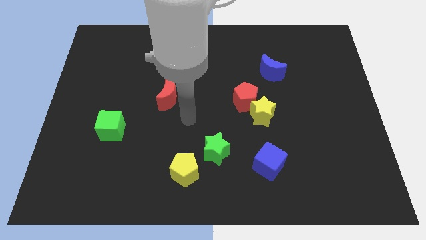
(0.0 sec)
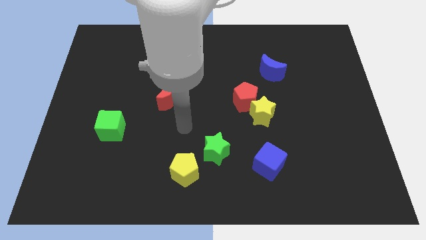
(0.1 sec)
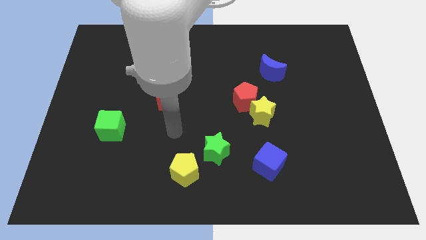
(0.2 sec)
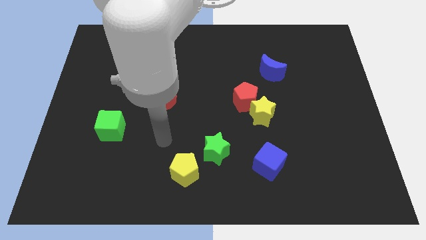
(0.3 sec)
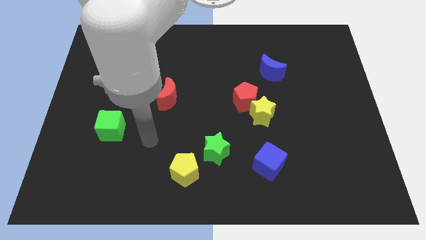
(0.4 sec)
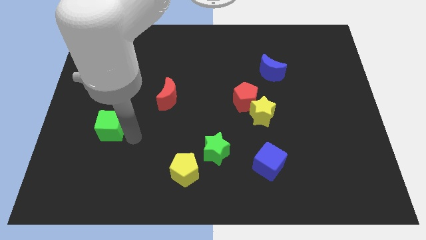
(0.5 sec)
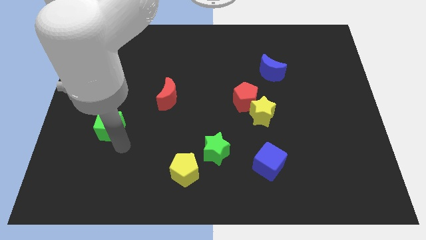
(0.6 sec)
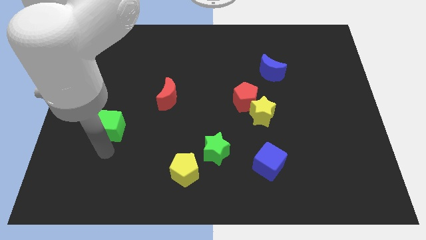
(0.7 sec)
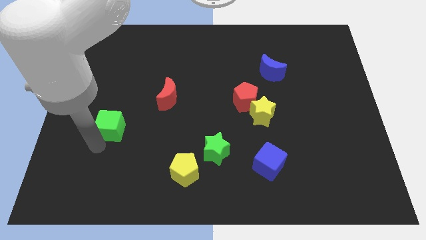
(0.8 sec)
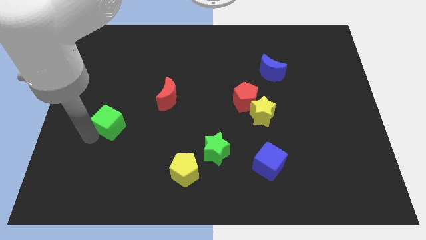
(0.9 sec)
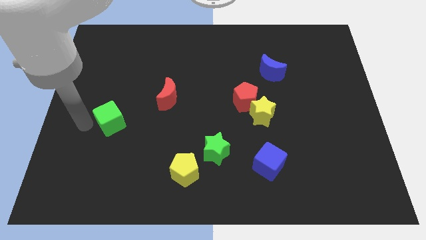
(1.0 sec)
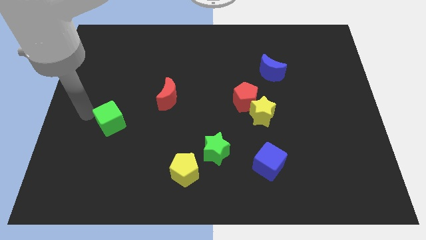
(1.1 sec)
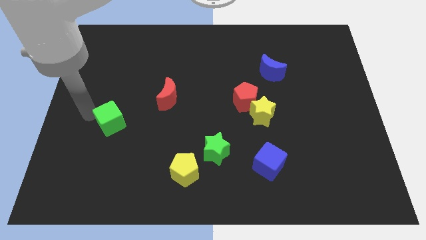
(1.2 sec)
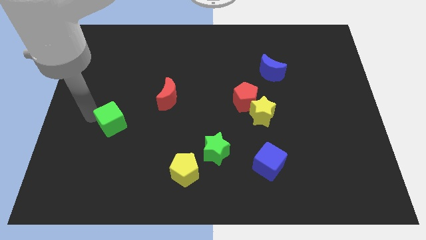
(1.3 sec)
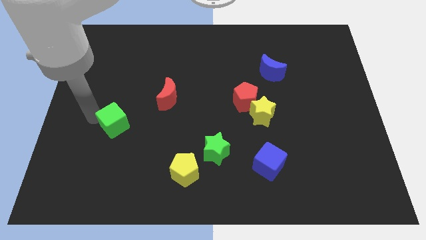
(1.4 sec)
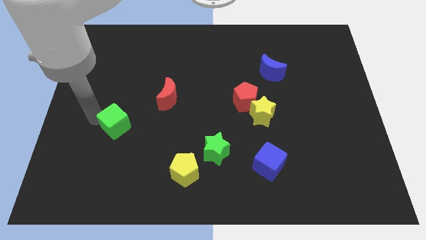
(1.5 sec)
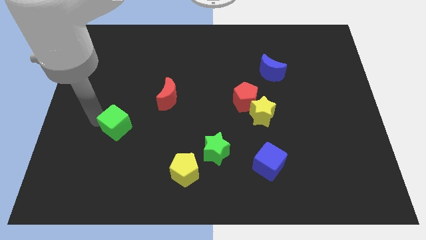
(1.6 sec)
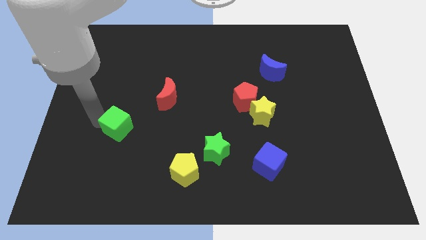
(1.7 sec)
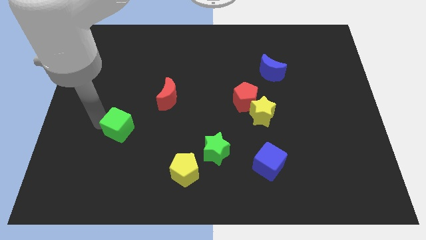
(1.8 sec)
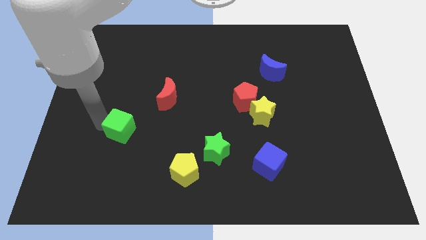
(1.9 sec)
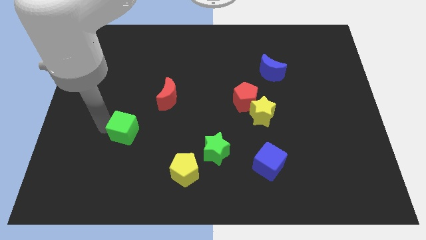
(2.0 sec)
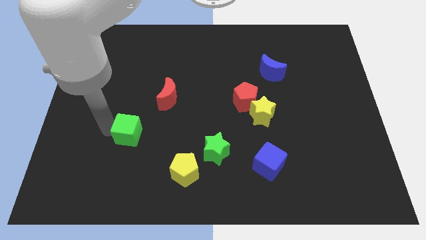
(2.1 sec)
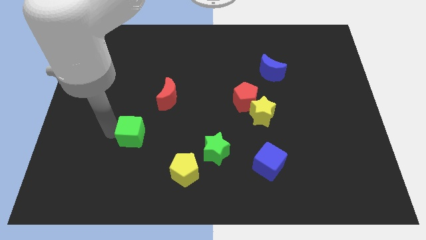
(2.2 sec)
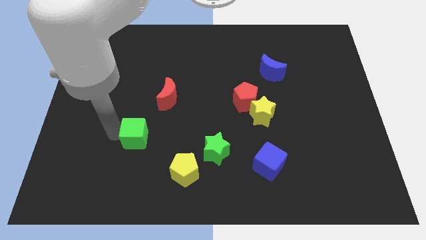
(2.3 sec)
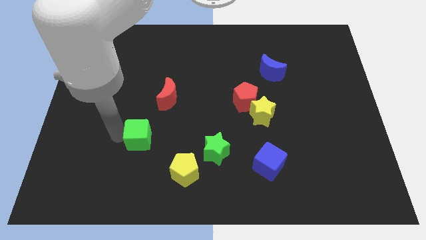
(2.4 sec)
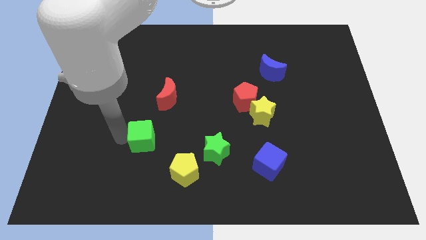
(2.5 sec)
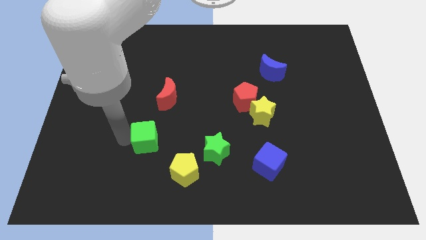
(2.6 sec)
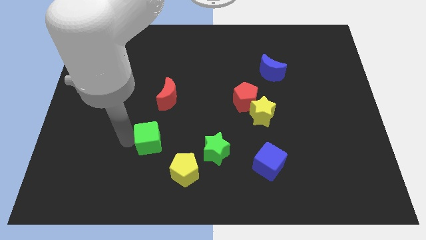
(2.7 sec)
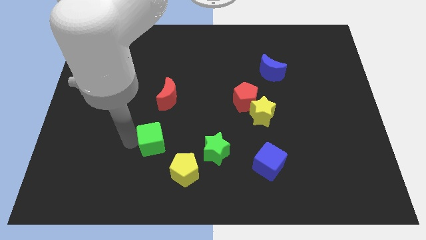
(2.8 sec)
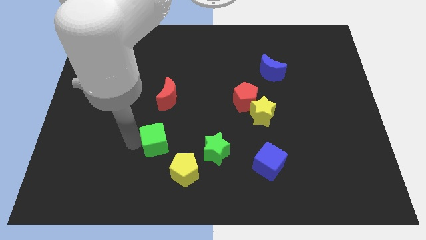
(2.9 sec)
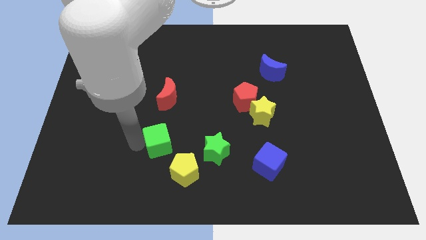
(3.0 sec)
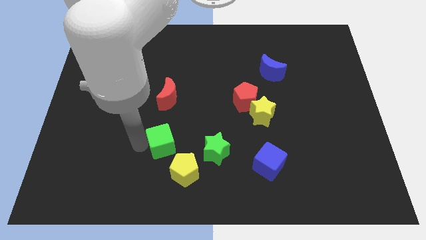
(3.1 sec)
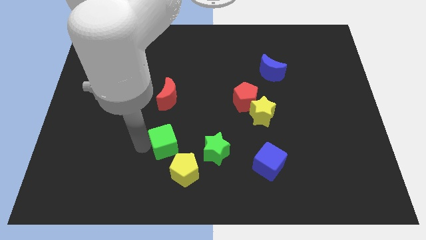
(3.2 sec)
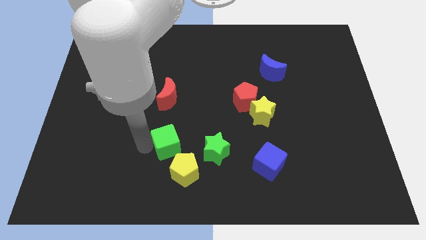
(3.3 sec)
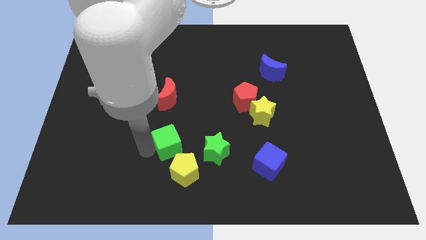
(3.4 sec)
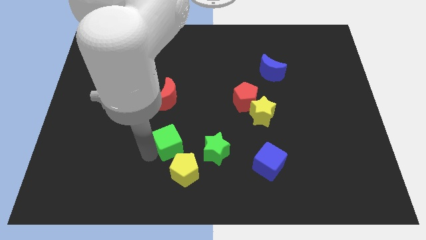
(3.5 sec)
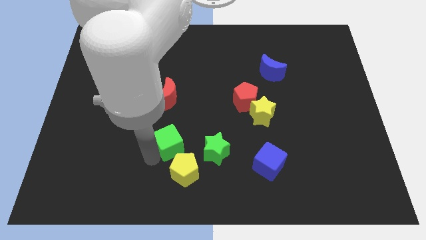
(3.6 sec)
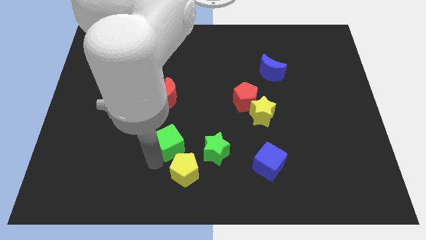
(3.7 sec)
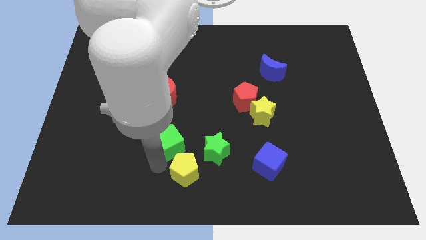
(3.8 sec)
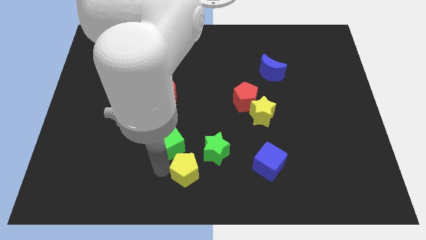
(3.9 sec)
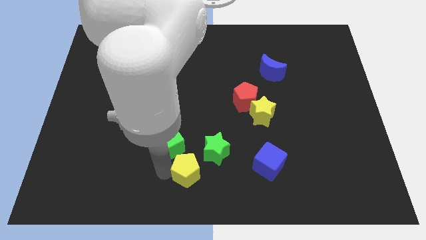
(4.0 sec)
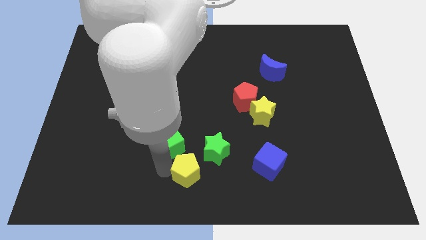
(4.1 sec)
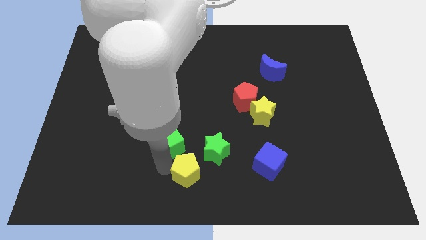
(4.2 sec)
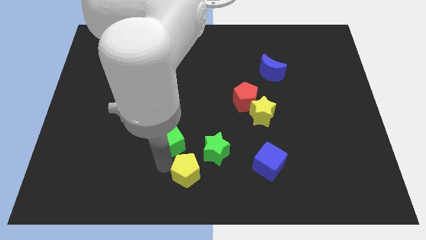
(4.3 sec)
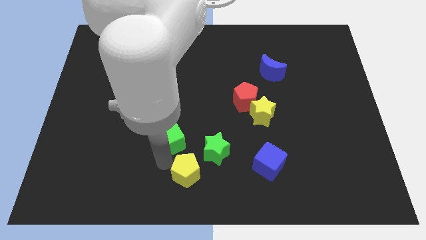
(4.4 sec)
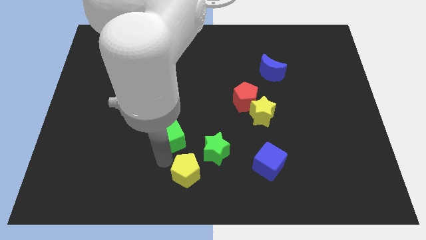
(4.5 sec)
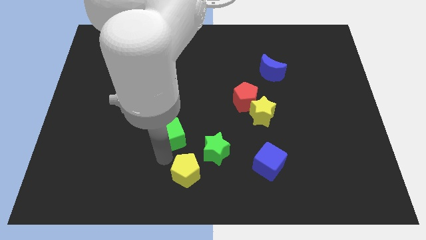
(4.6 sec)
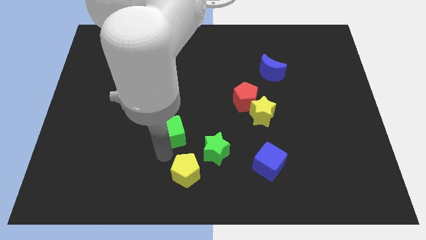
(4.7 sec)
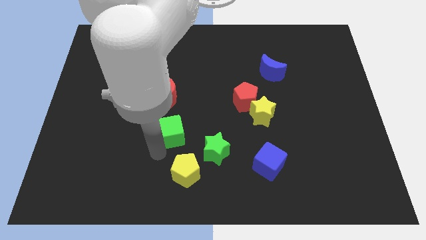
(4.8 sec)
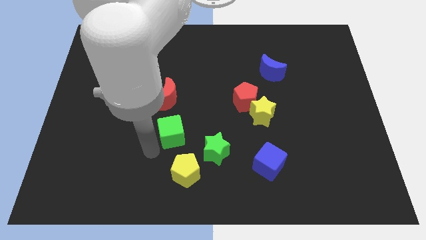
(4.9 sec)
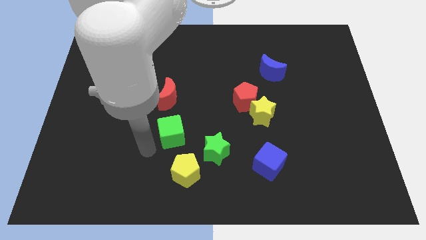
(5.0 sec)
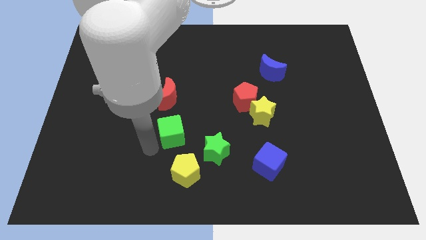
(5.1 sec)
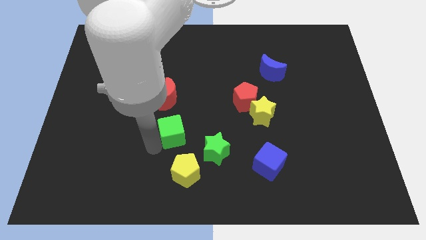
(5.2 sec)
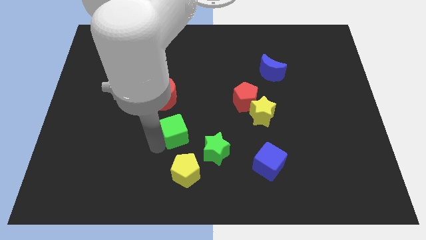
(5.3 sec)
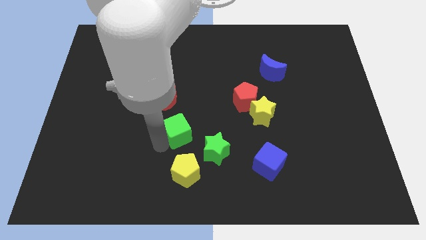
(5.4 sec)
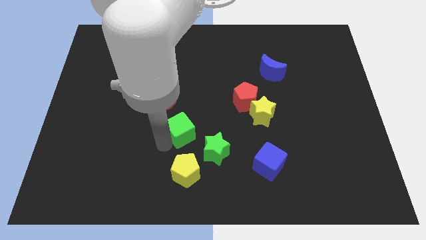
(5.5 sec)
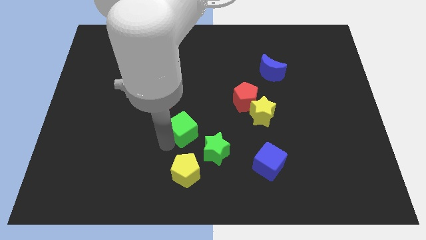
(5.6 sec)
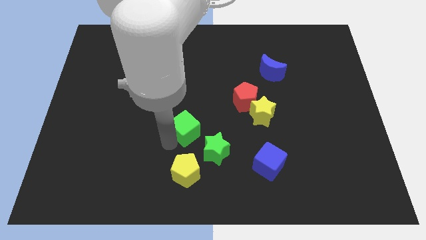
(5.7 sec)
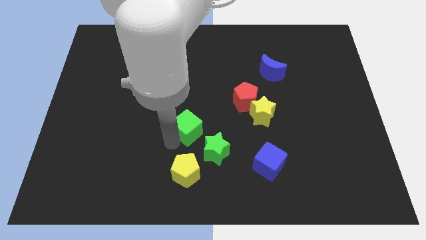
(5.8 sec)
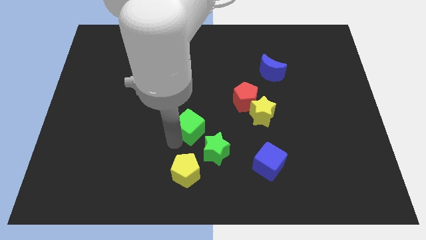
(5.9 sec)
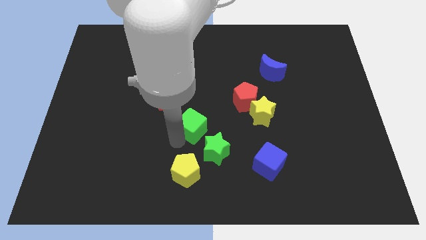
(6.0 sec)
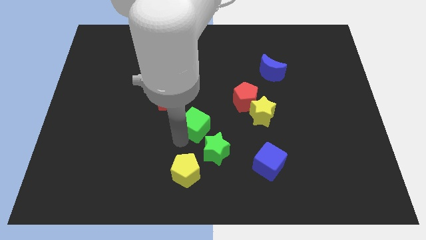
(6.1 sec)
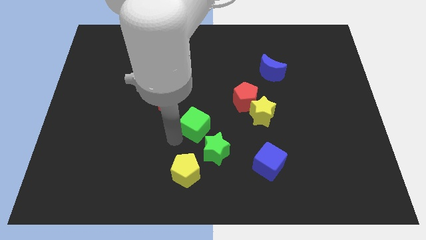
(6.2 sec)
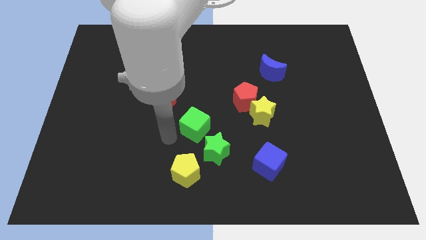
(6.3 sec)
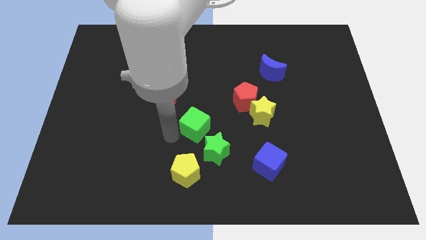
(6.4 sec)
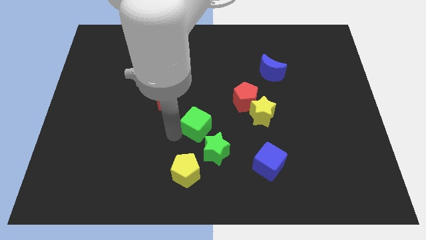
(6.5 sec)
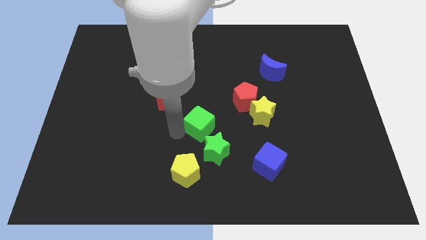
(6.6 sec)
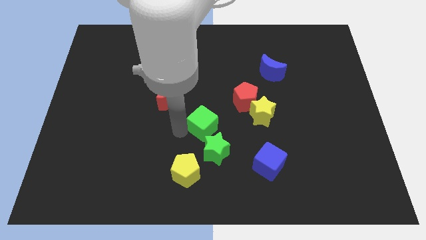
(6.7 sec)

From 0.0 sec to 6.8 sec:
move the green cube to the bottom left of the red pentagon
